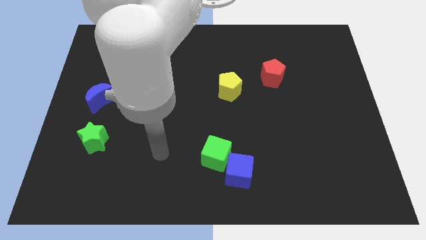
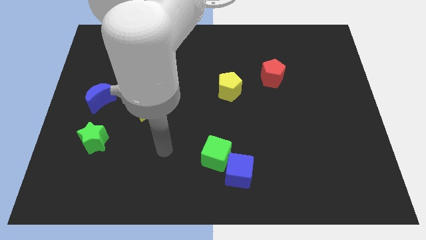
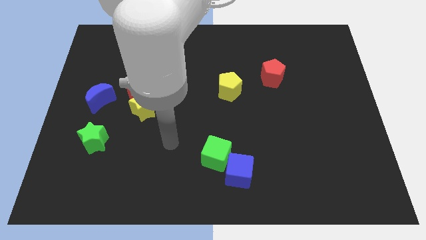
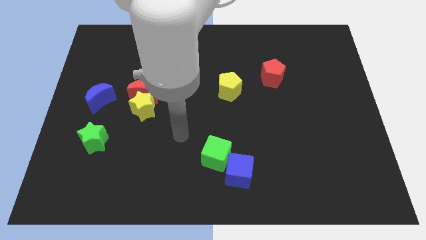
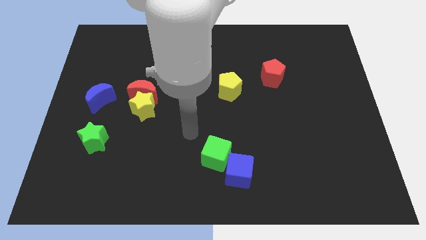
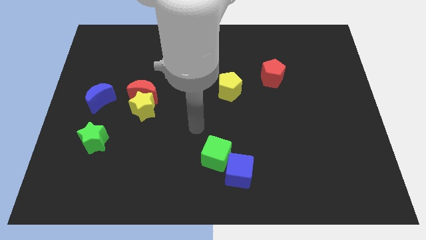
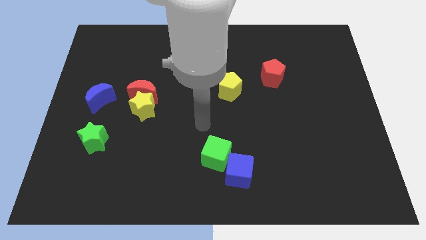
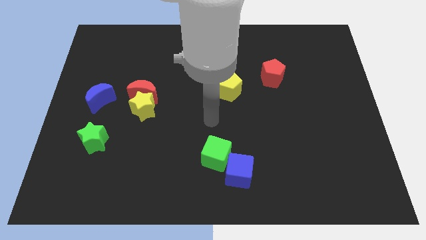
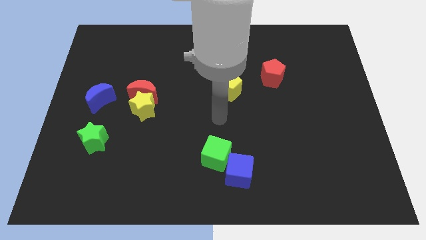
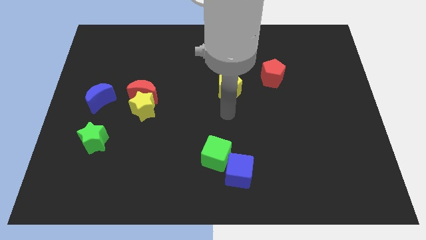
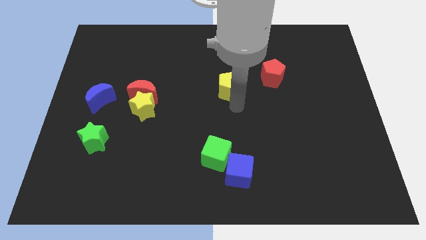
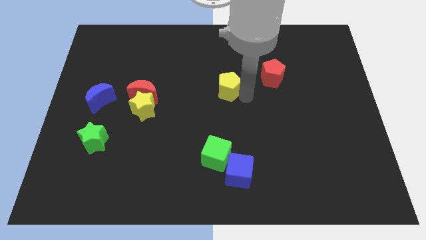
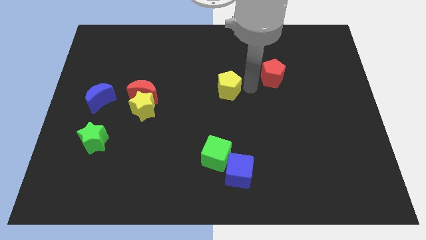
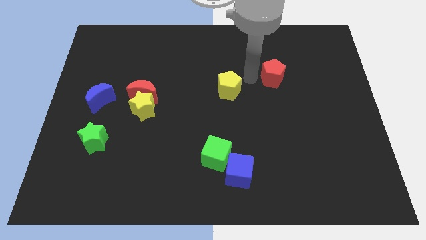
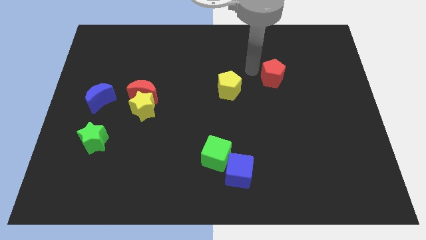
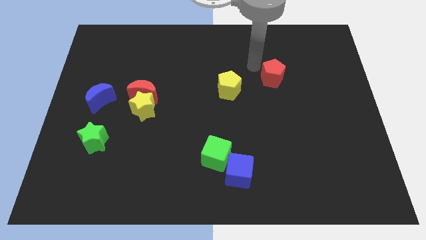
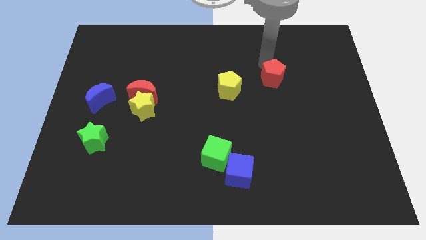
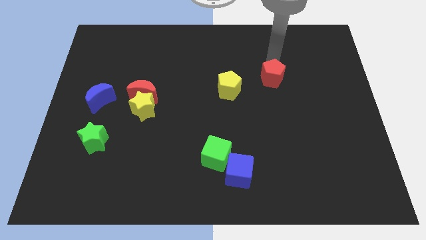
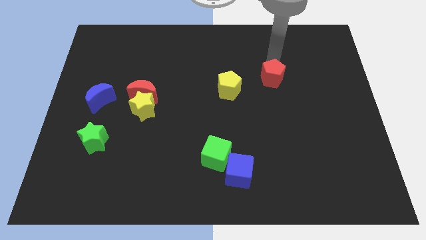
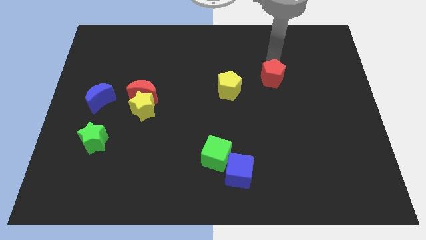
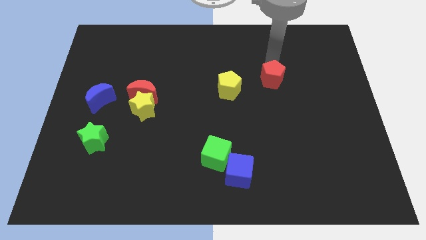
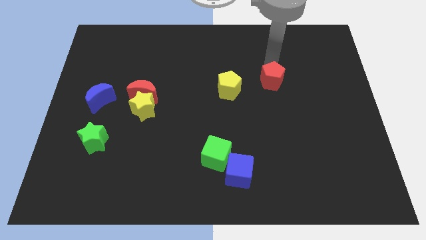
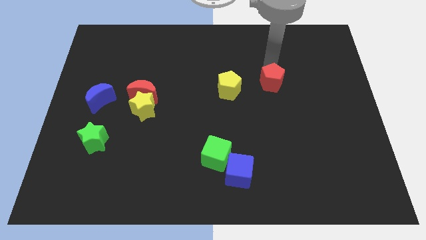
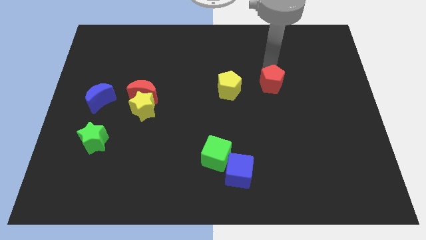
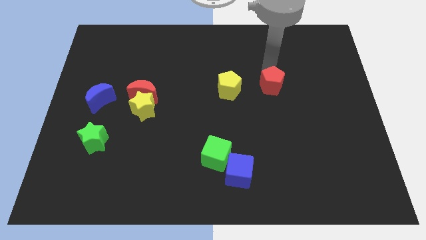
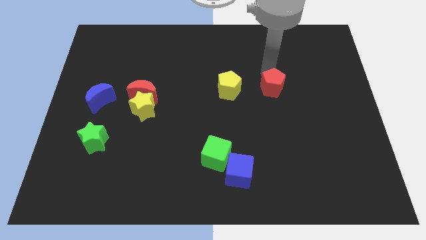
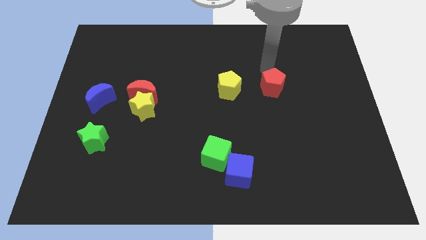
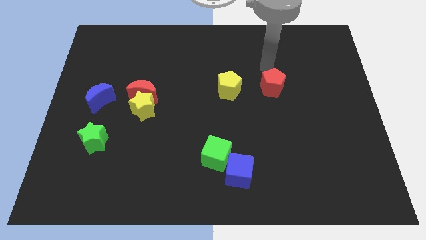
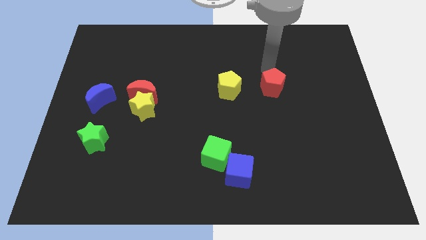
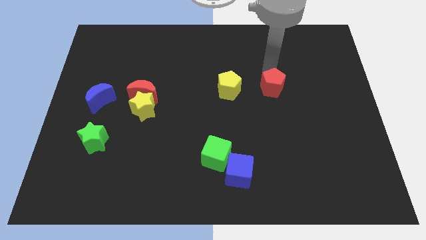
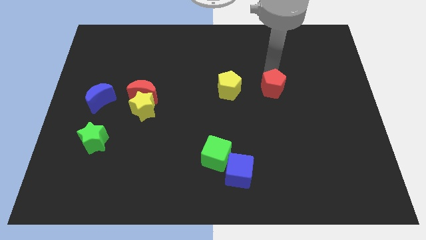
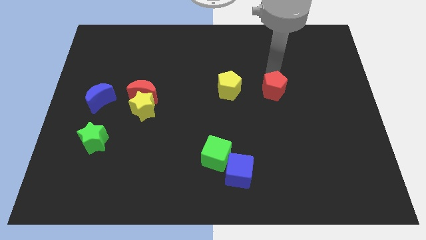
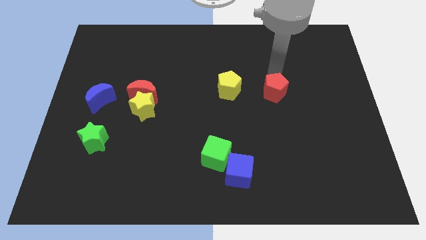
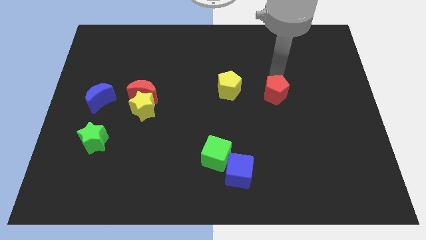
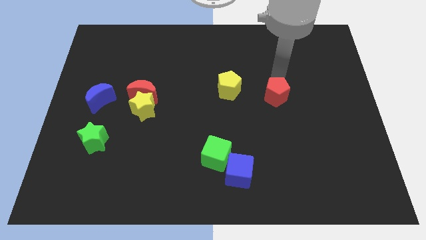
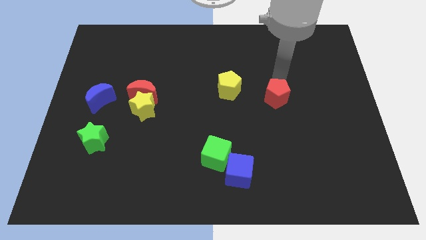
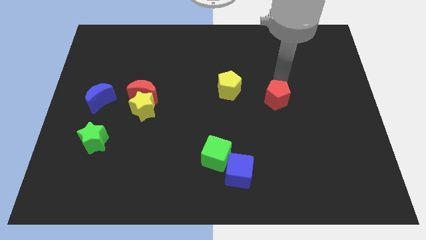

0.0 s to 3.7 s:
push the red pentagon a little bit down

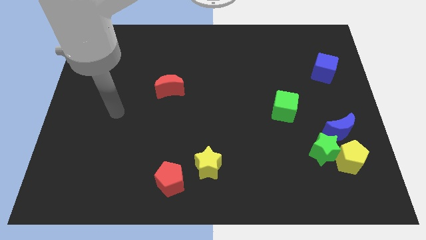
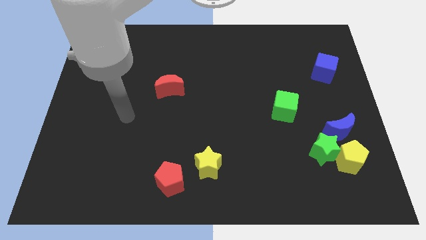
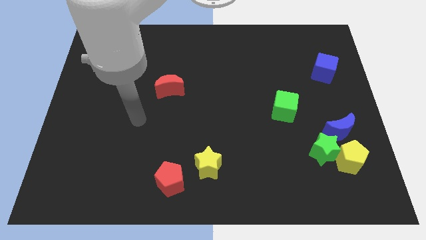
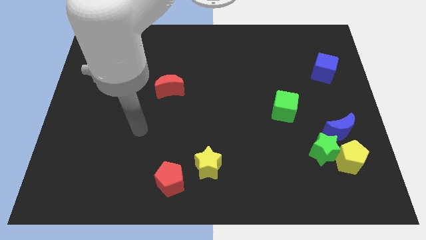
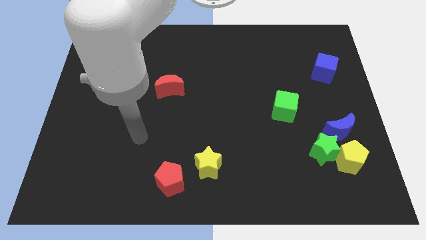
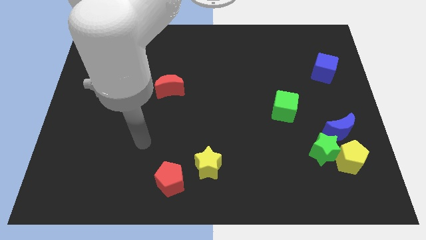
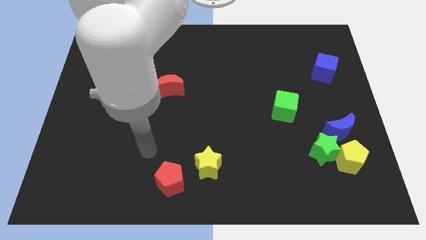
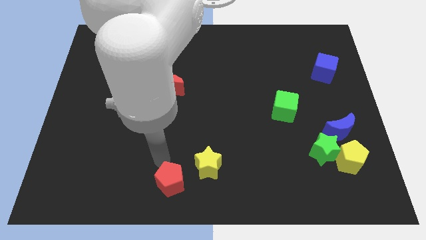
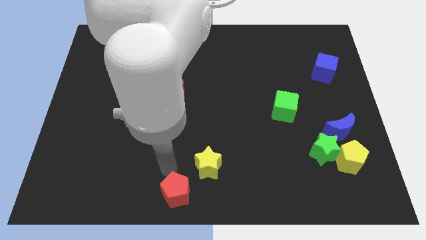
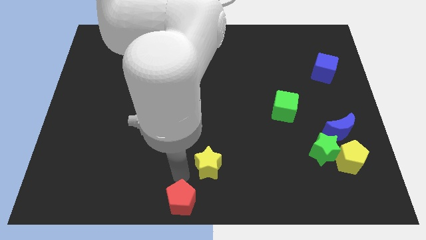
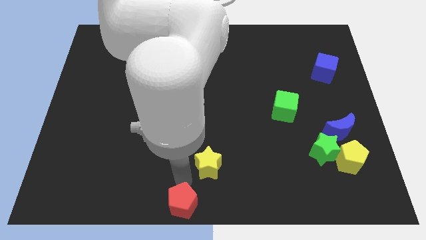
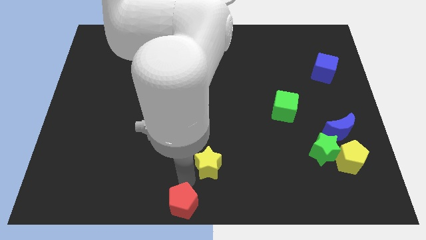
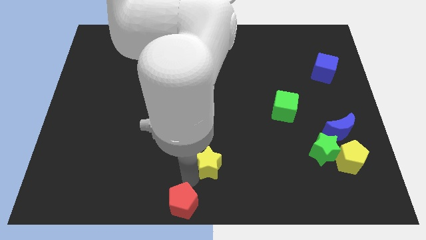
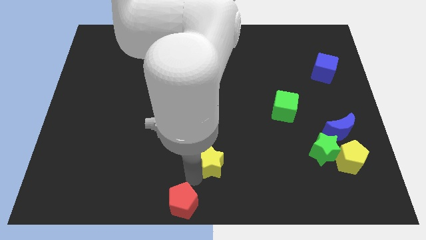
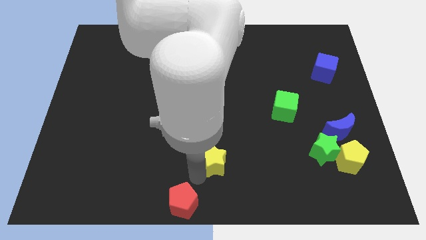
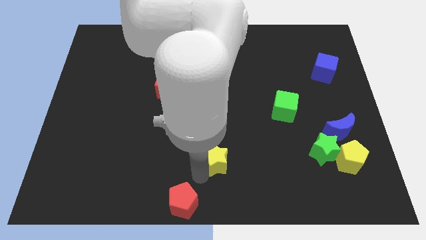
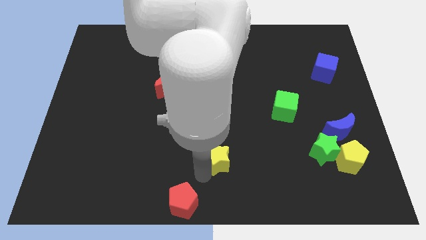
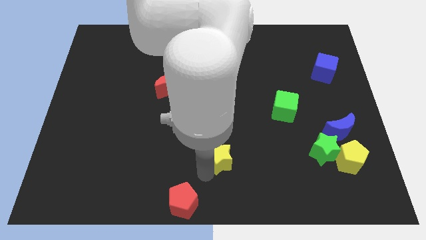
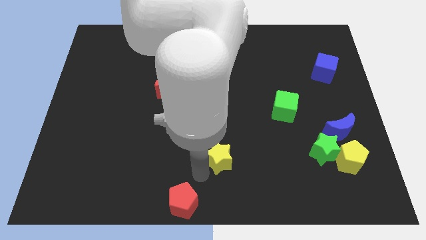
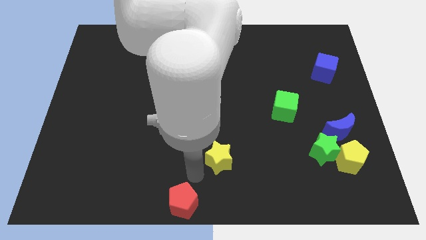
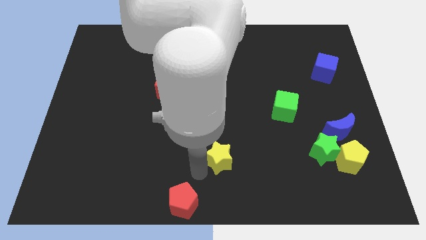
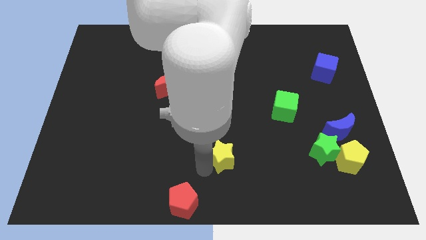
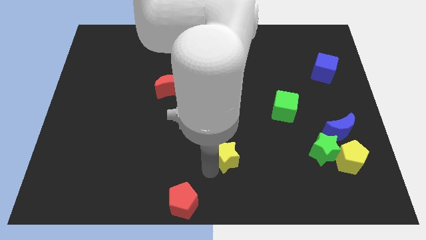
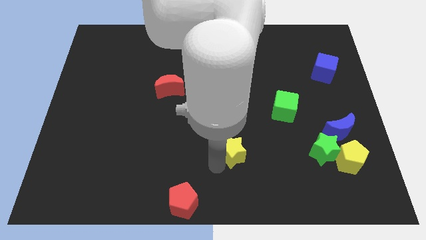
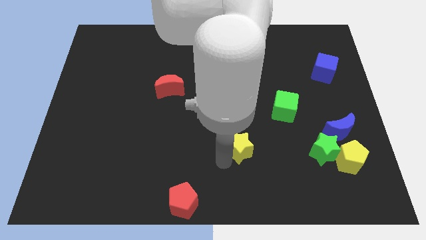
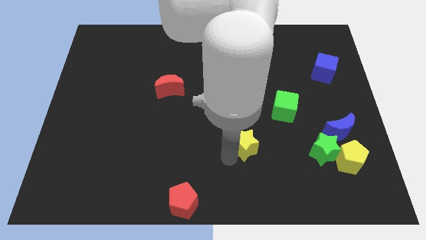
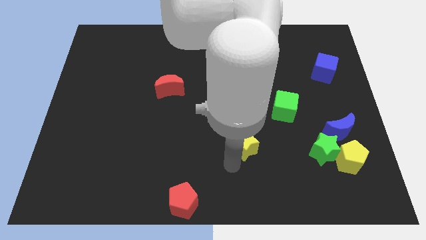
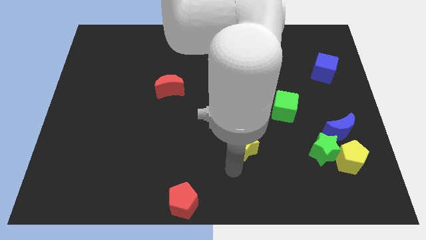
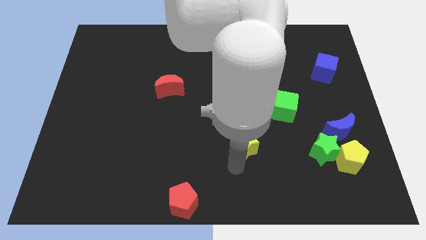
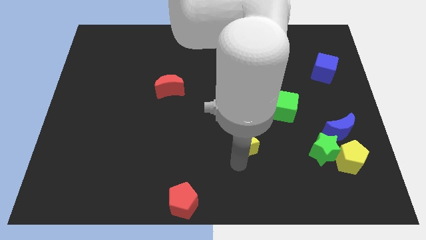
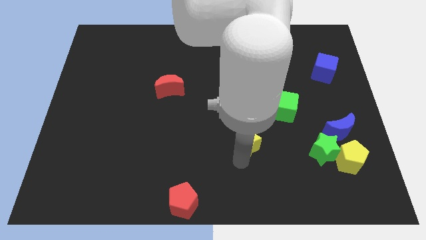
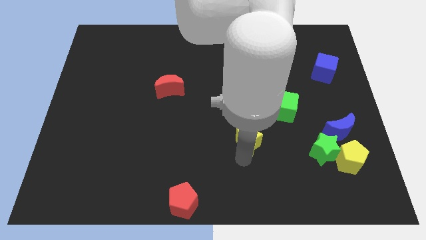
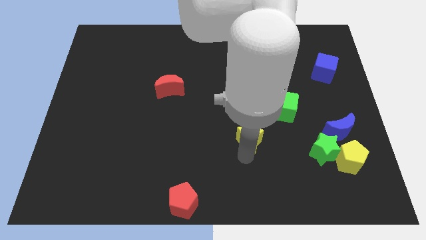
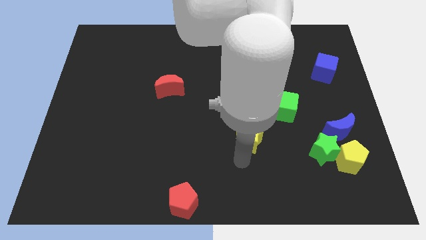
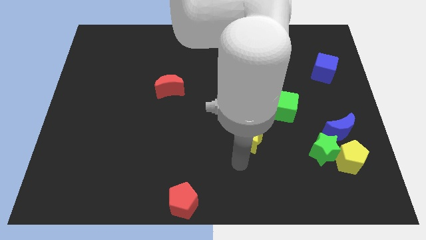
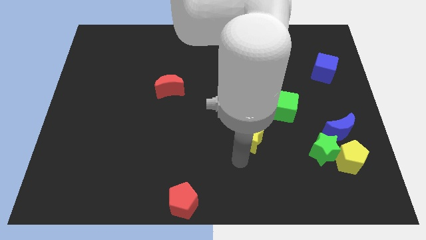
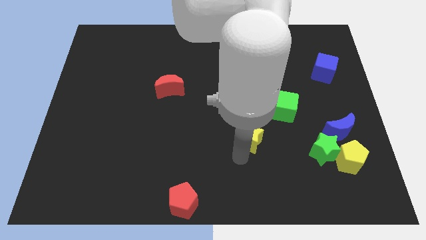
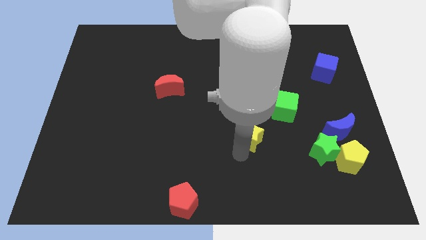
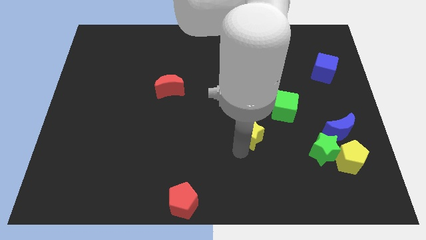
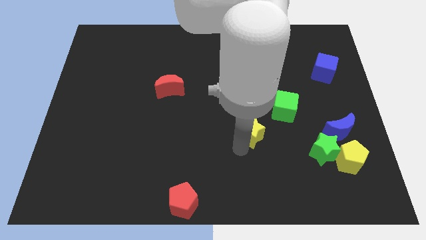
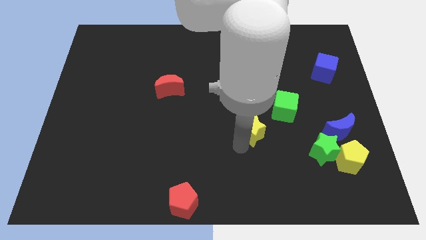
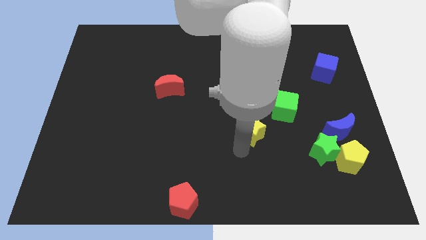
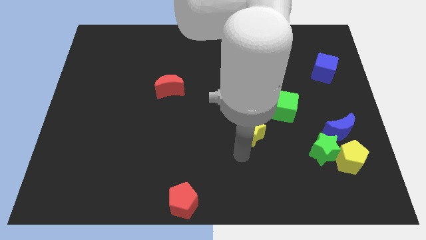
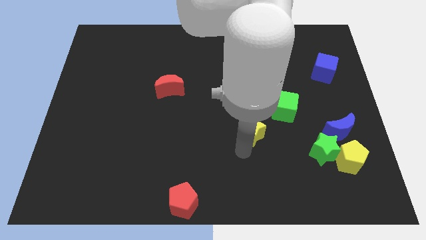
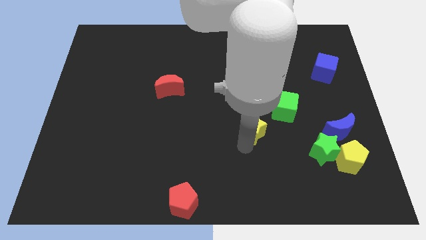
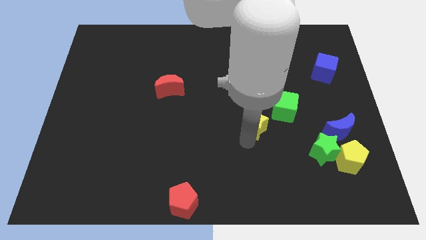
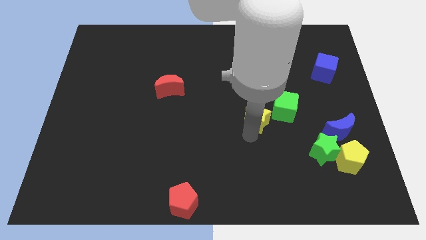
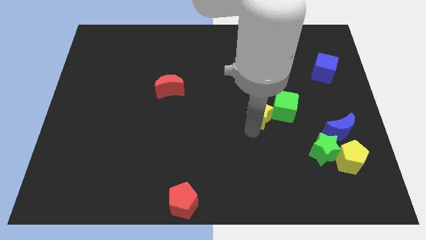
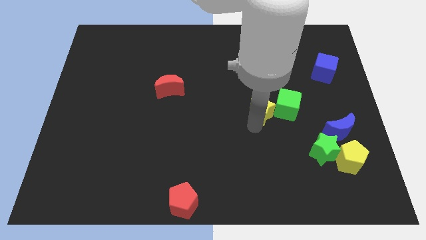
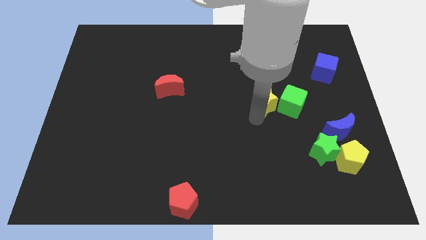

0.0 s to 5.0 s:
move the yellow star upwards and then to the right
